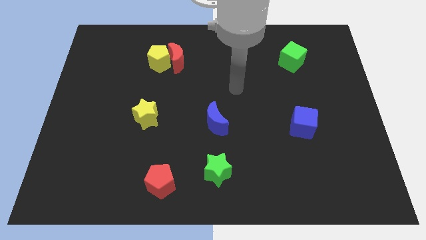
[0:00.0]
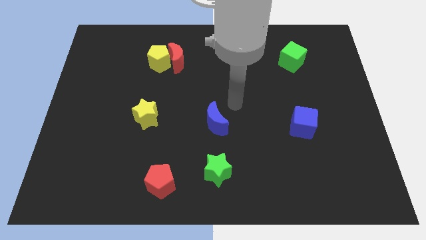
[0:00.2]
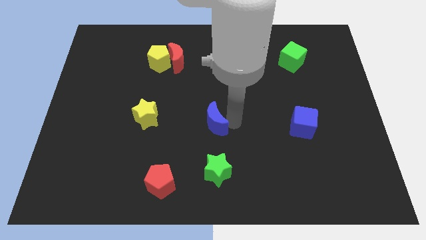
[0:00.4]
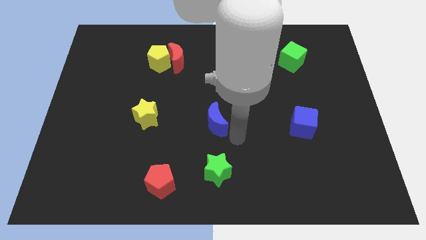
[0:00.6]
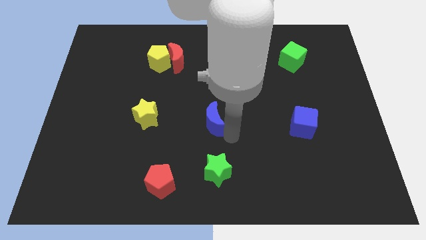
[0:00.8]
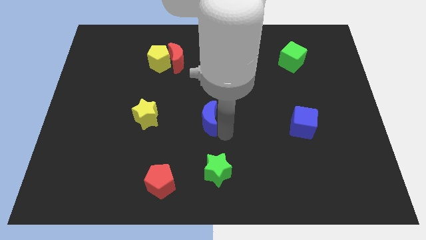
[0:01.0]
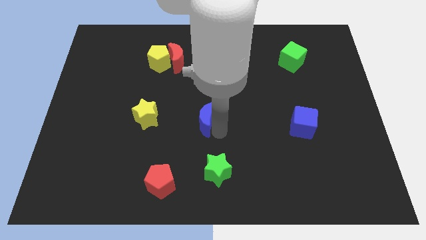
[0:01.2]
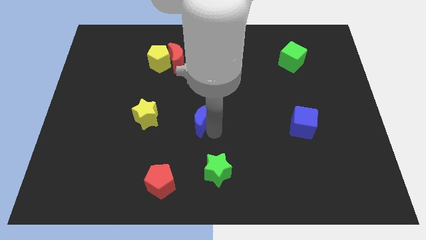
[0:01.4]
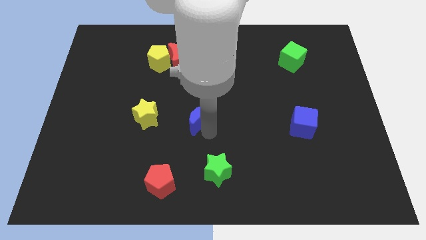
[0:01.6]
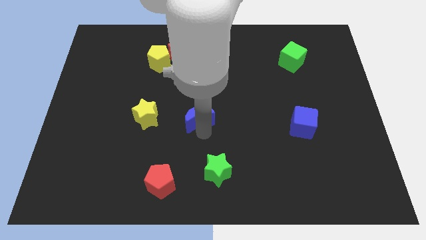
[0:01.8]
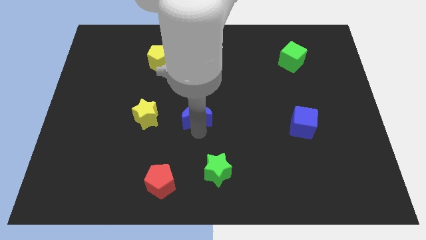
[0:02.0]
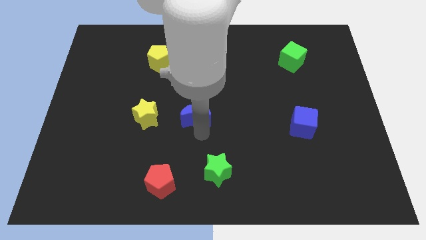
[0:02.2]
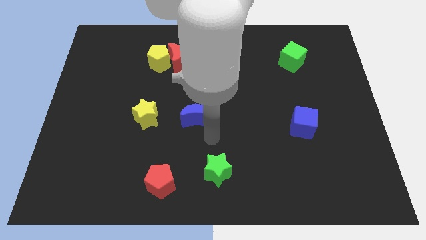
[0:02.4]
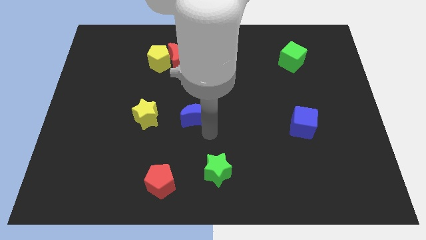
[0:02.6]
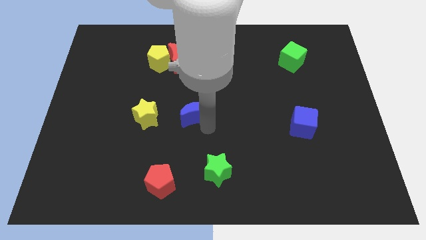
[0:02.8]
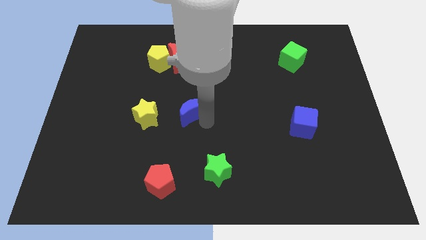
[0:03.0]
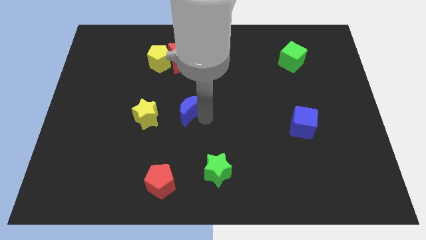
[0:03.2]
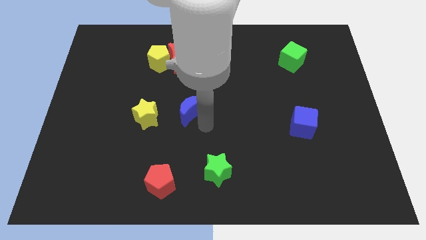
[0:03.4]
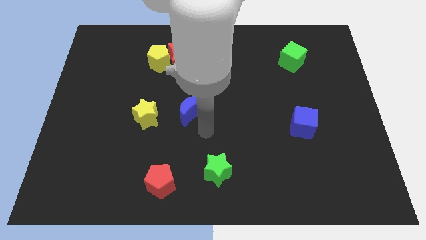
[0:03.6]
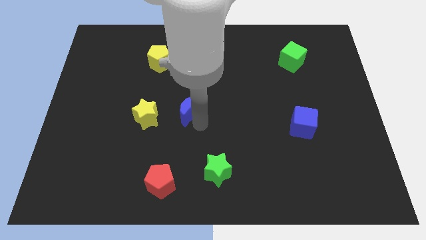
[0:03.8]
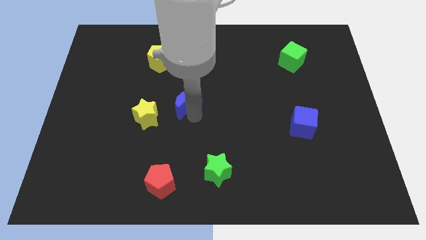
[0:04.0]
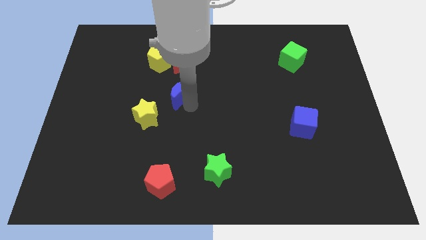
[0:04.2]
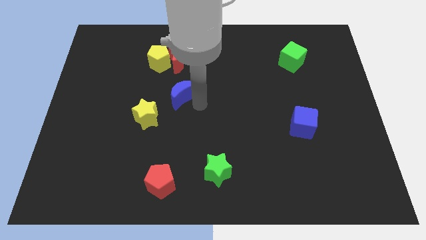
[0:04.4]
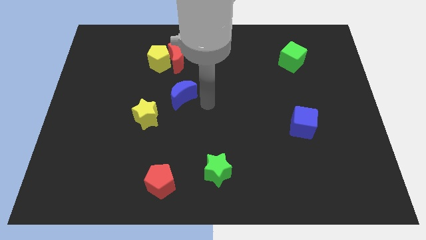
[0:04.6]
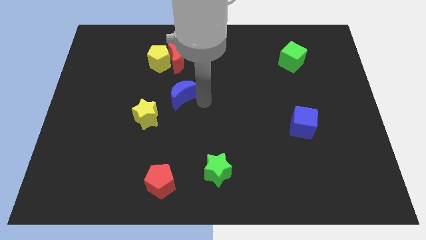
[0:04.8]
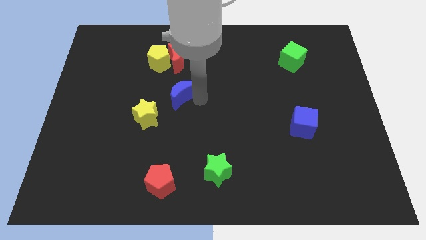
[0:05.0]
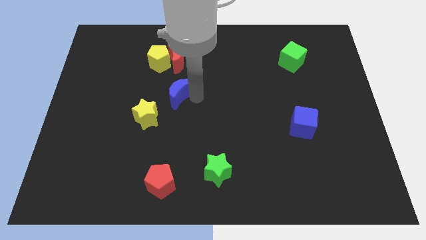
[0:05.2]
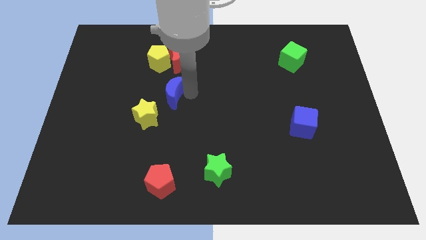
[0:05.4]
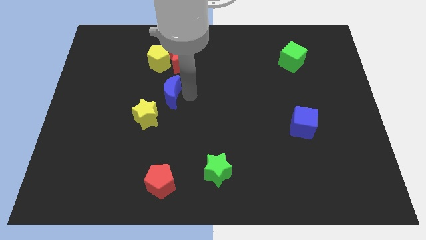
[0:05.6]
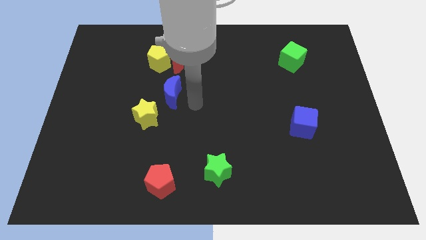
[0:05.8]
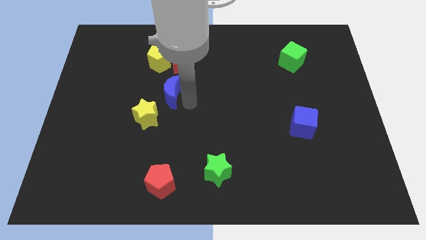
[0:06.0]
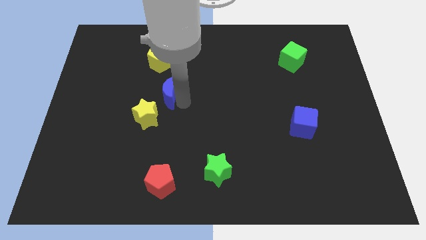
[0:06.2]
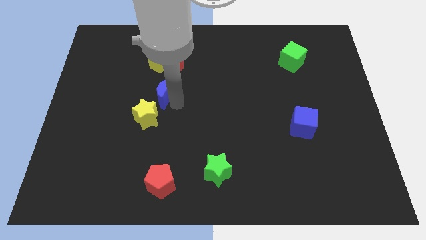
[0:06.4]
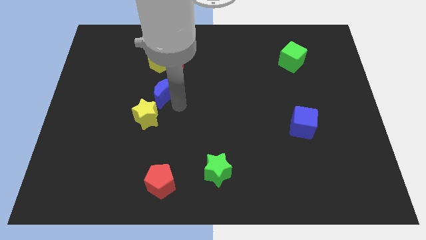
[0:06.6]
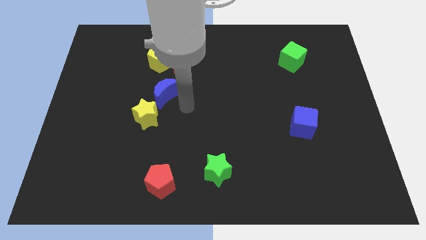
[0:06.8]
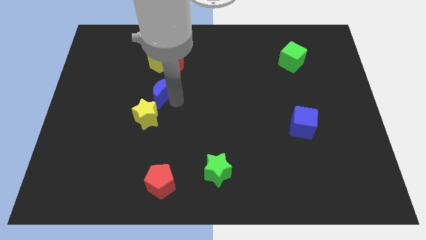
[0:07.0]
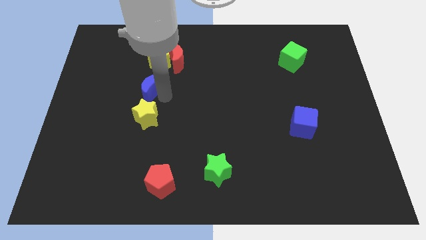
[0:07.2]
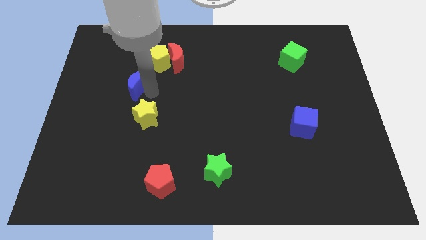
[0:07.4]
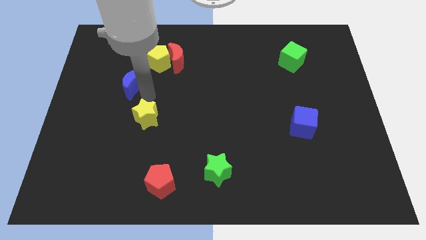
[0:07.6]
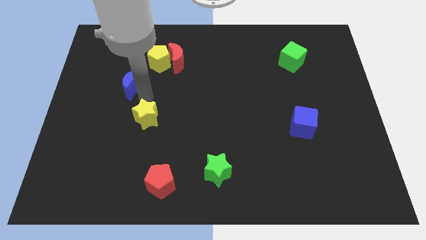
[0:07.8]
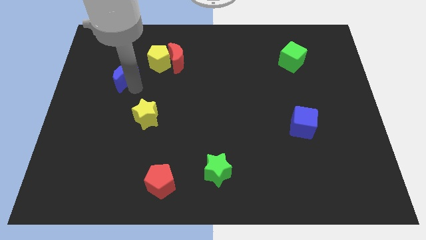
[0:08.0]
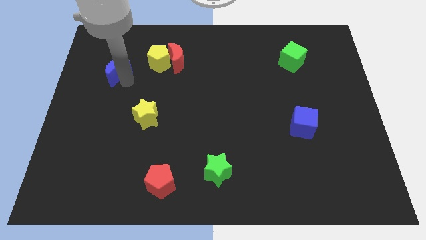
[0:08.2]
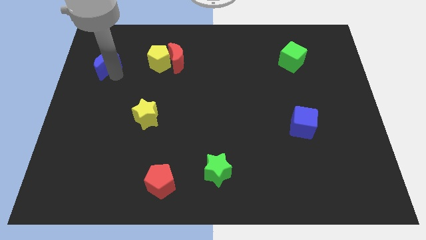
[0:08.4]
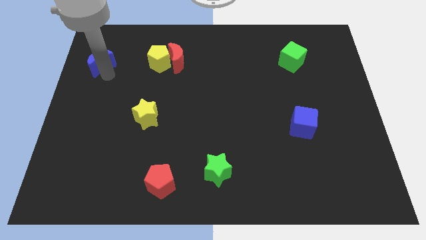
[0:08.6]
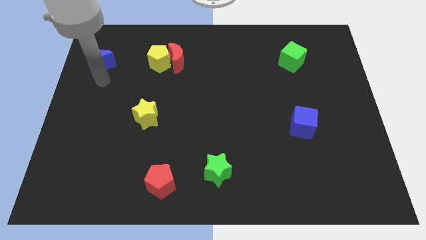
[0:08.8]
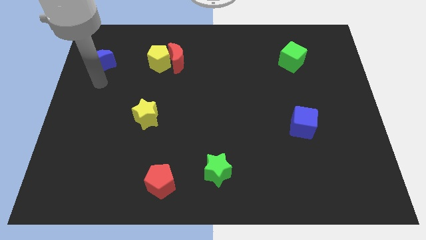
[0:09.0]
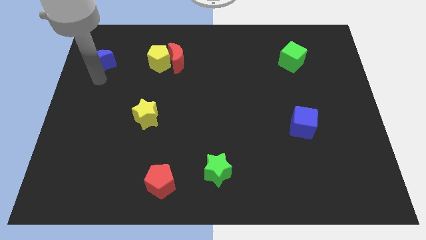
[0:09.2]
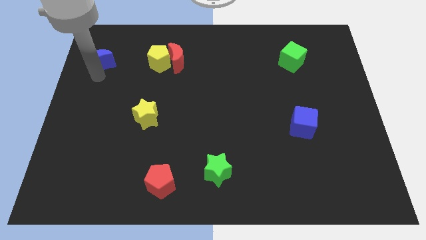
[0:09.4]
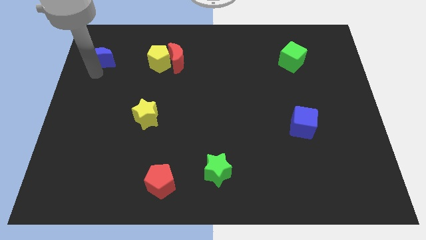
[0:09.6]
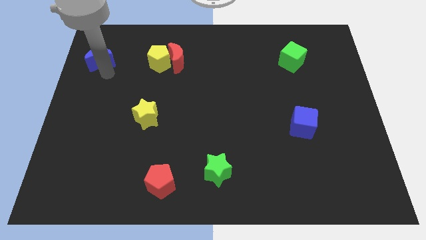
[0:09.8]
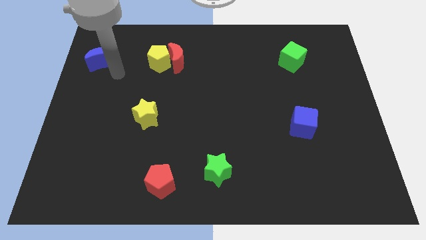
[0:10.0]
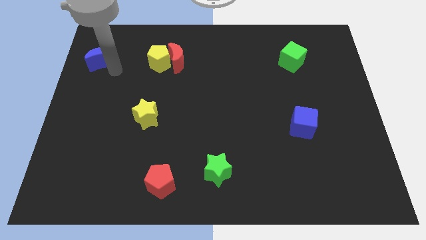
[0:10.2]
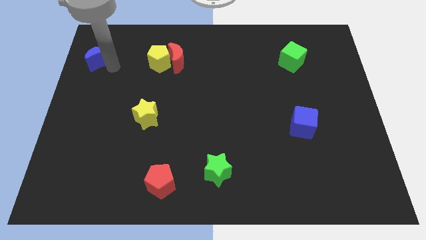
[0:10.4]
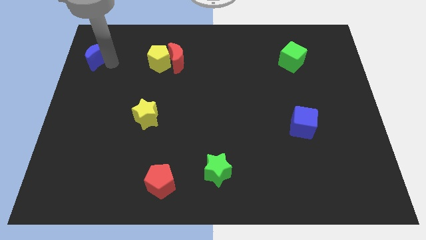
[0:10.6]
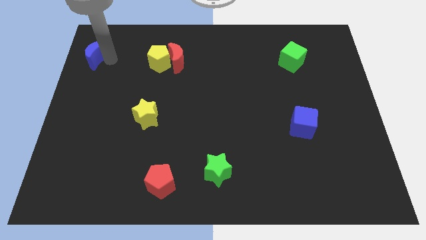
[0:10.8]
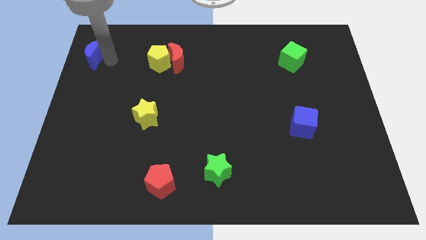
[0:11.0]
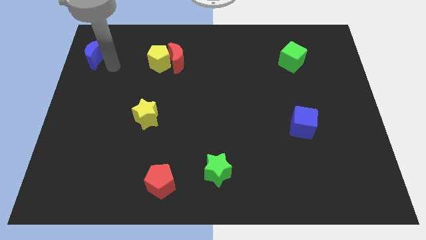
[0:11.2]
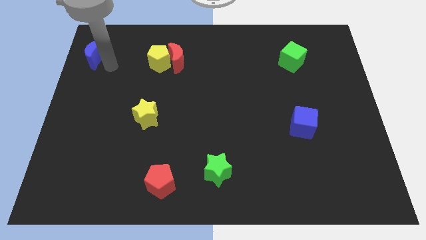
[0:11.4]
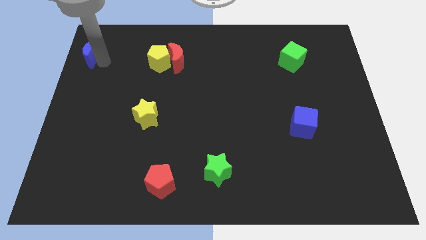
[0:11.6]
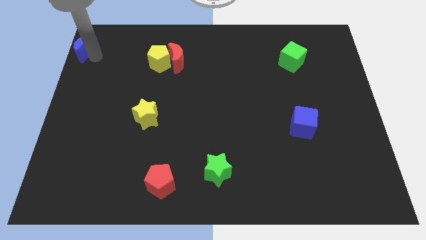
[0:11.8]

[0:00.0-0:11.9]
put the blue moon to the top left of the board
